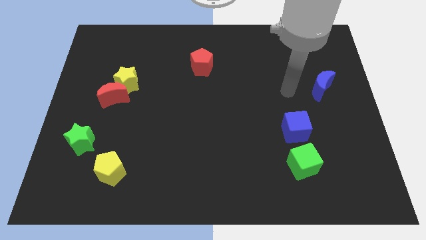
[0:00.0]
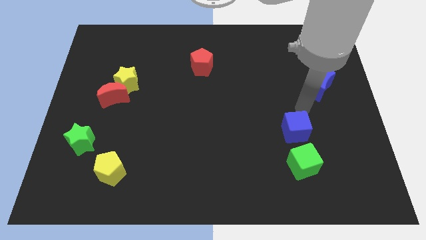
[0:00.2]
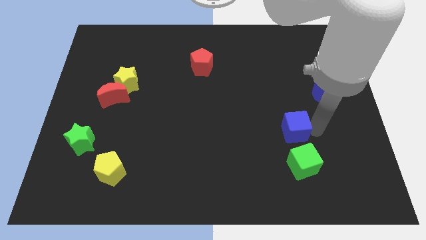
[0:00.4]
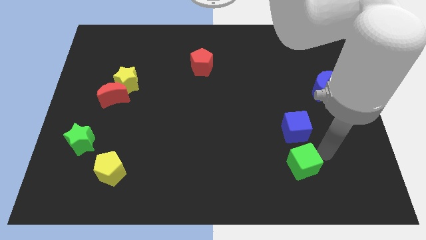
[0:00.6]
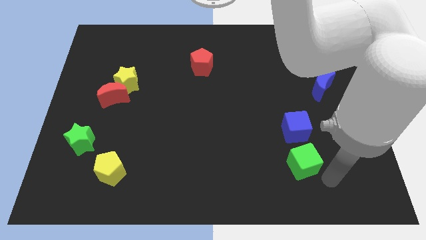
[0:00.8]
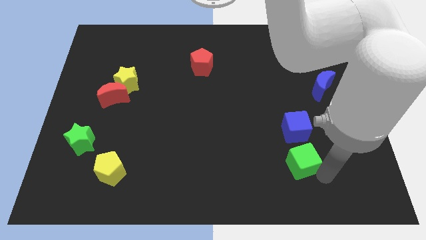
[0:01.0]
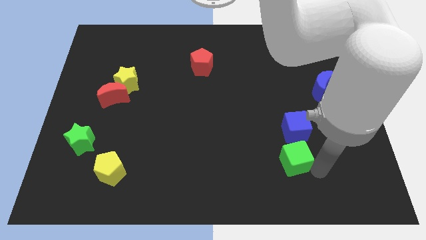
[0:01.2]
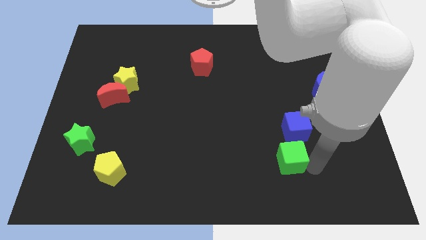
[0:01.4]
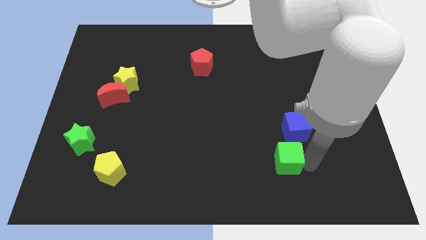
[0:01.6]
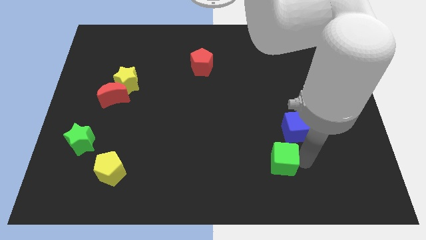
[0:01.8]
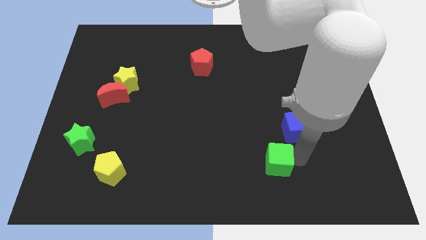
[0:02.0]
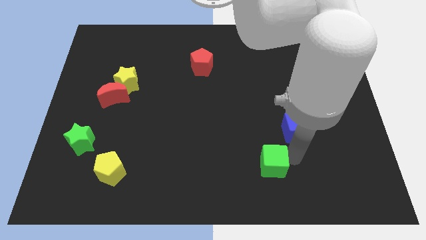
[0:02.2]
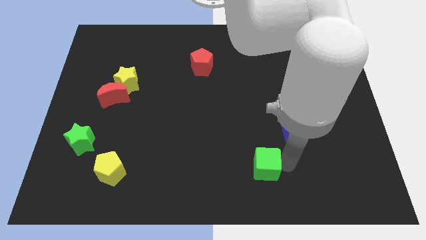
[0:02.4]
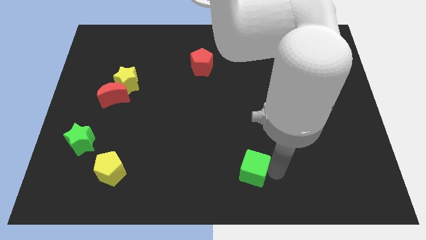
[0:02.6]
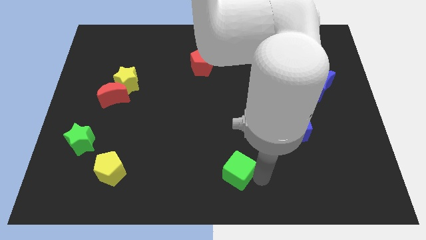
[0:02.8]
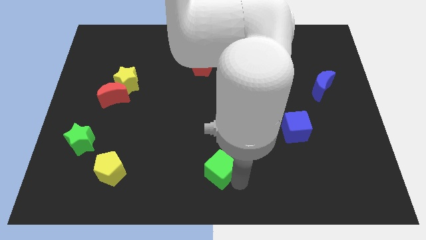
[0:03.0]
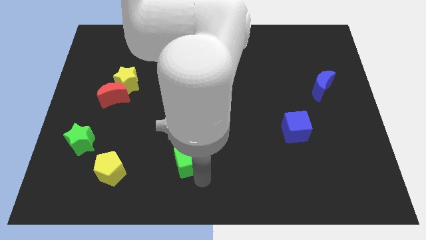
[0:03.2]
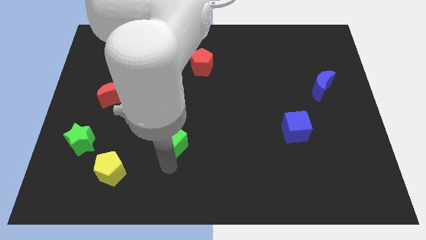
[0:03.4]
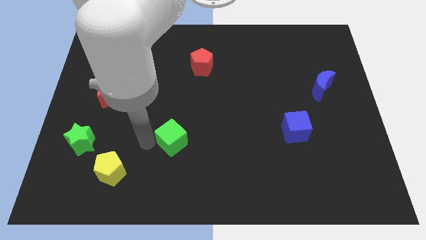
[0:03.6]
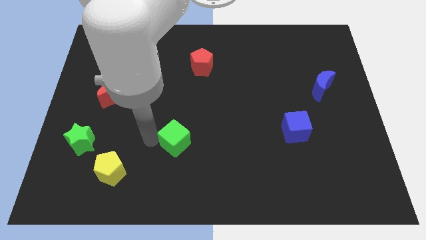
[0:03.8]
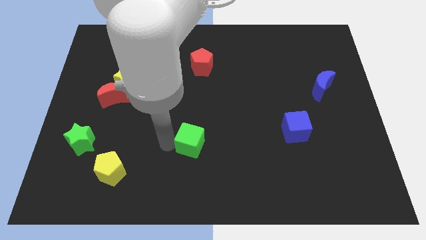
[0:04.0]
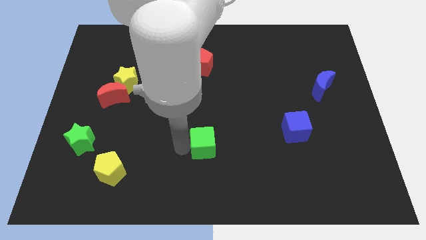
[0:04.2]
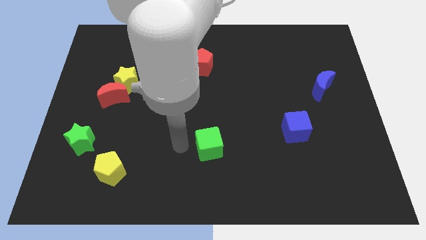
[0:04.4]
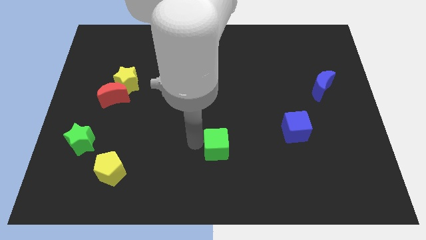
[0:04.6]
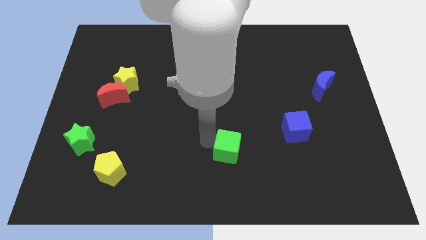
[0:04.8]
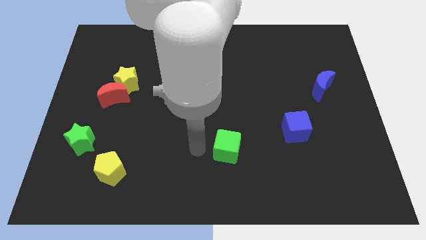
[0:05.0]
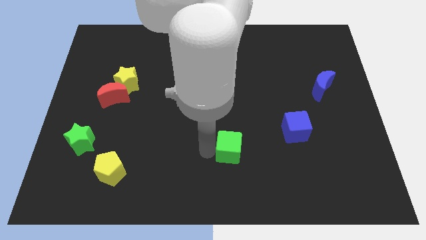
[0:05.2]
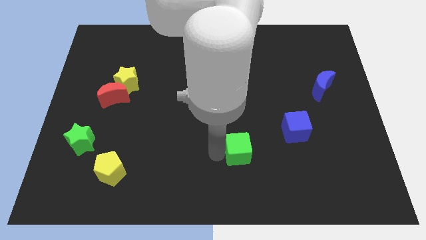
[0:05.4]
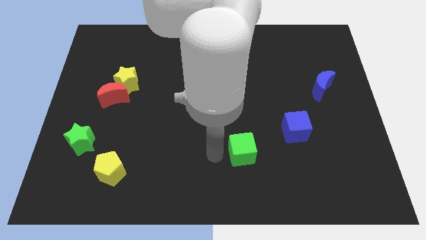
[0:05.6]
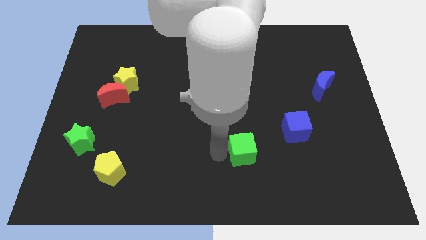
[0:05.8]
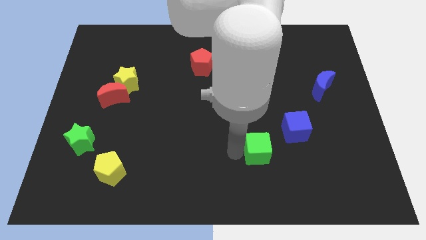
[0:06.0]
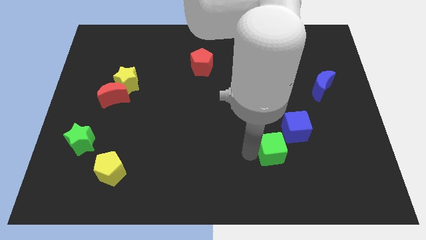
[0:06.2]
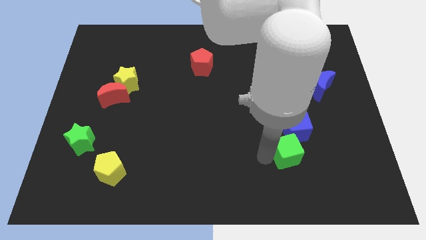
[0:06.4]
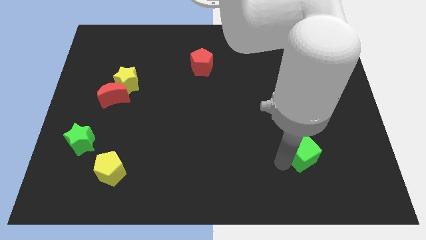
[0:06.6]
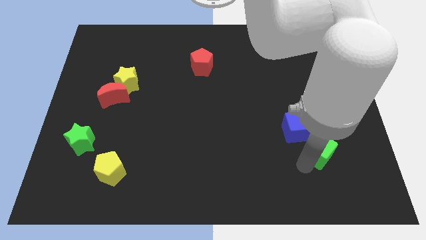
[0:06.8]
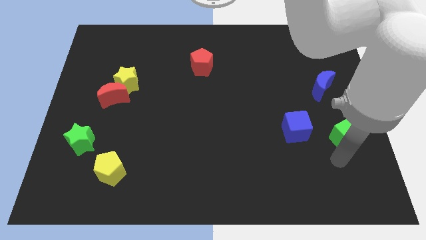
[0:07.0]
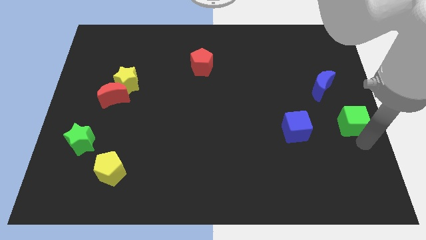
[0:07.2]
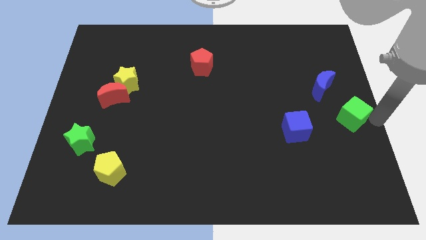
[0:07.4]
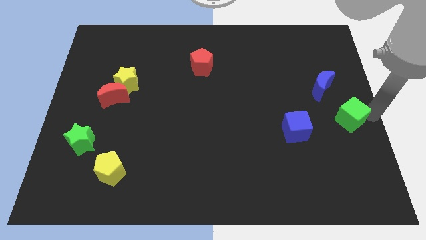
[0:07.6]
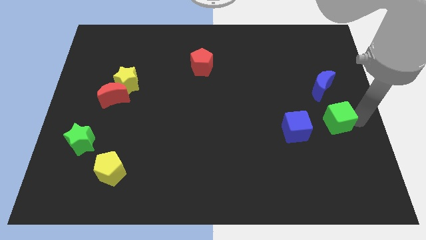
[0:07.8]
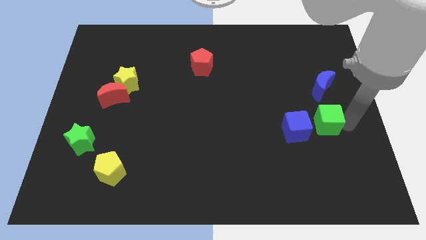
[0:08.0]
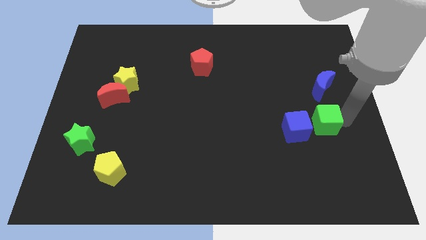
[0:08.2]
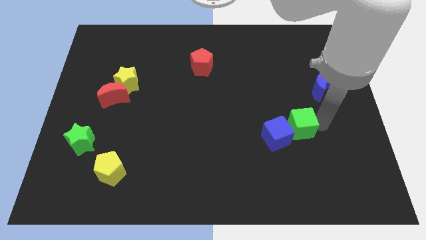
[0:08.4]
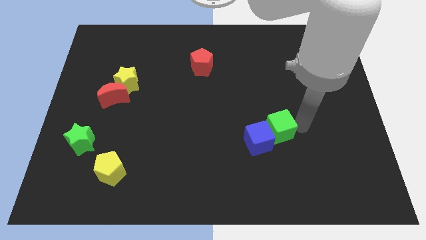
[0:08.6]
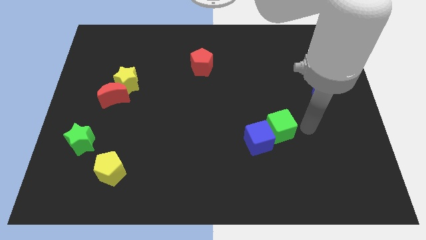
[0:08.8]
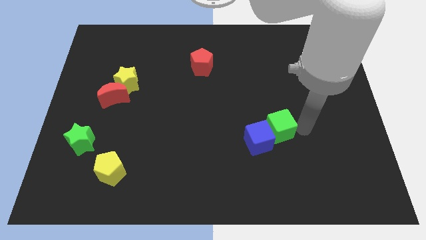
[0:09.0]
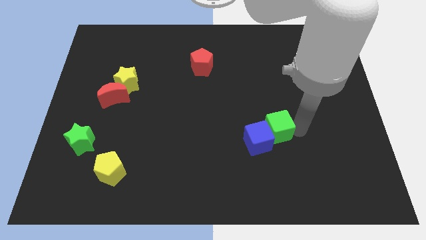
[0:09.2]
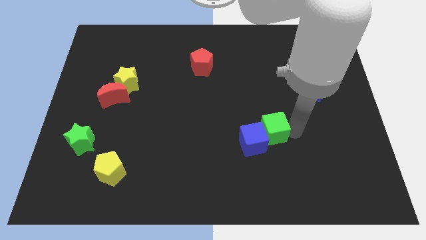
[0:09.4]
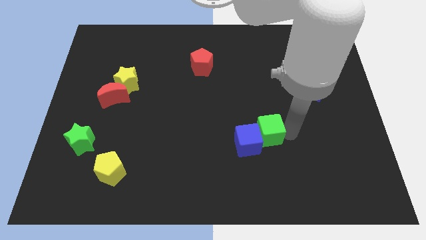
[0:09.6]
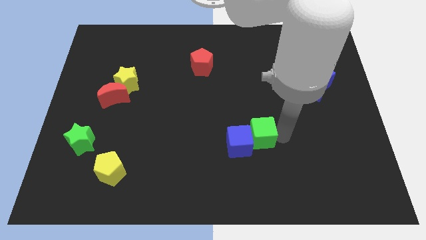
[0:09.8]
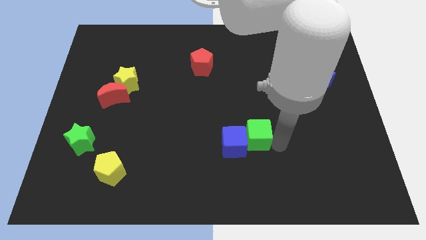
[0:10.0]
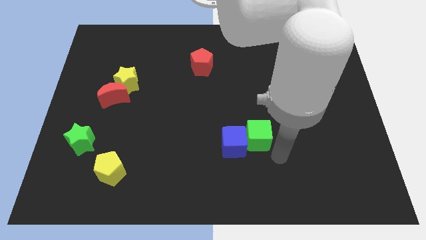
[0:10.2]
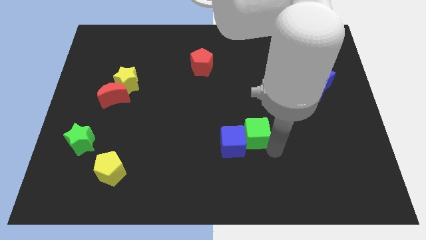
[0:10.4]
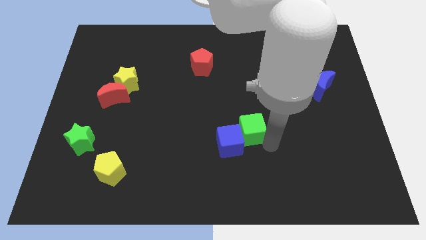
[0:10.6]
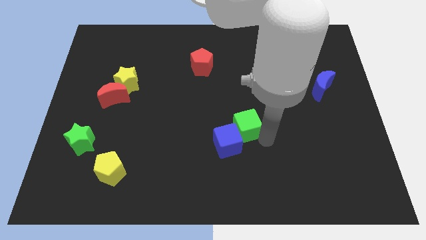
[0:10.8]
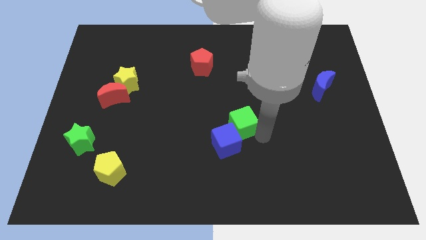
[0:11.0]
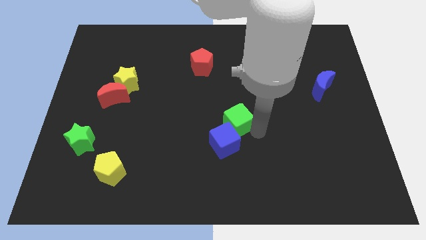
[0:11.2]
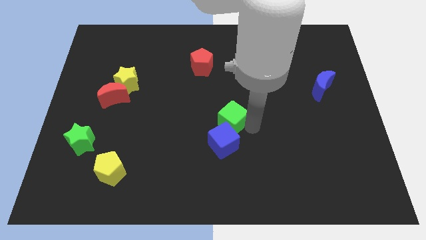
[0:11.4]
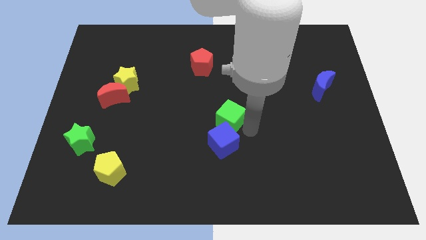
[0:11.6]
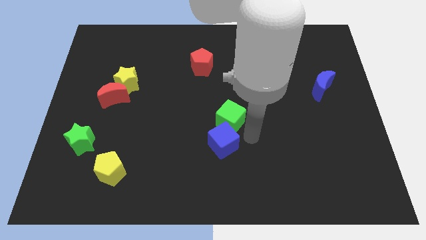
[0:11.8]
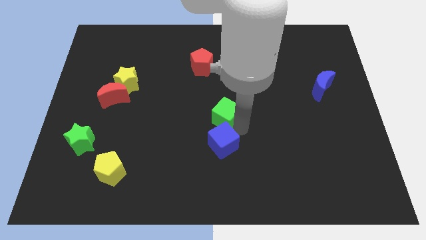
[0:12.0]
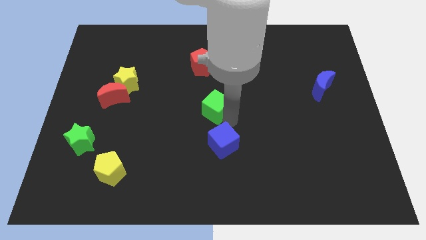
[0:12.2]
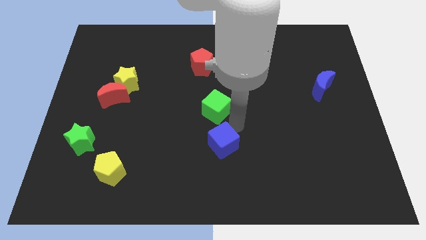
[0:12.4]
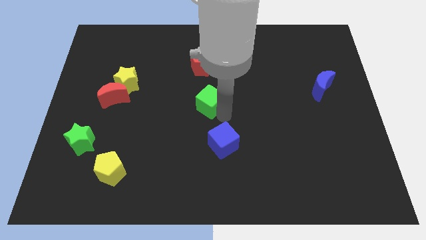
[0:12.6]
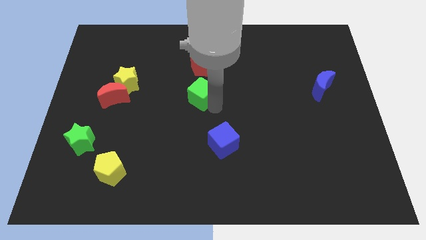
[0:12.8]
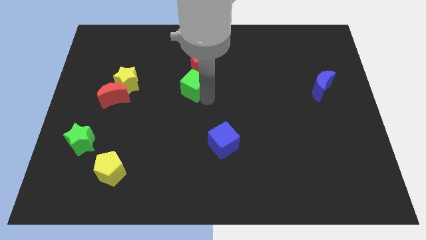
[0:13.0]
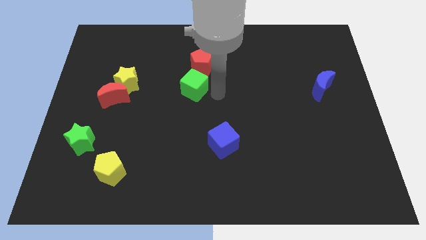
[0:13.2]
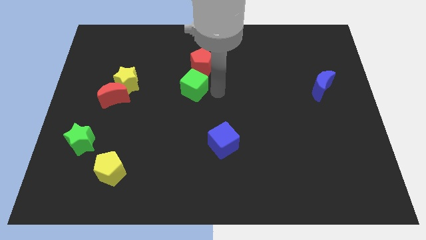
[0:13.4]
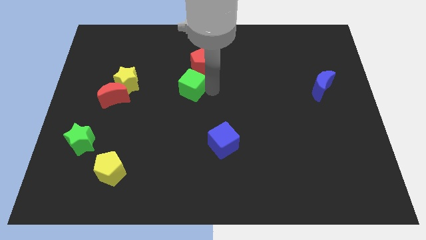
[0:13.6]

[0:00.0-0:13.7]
push the green cube right of the yellow star
